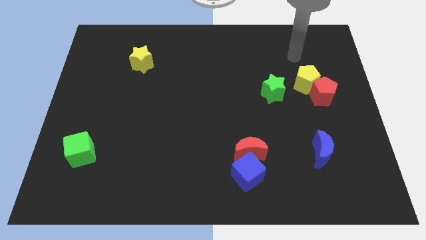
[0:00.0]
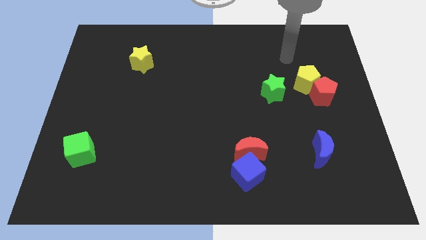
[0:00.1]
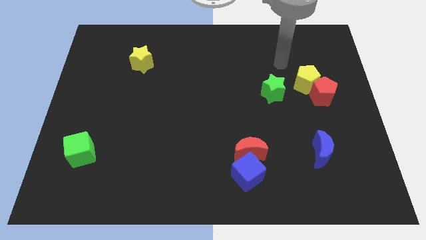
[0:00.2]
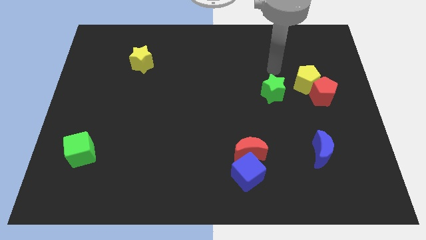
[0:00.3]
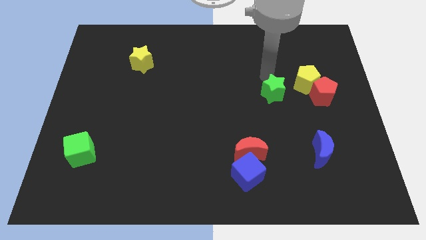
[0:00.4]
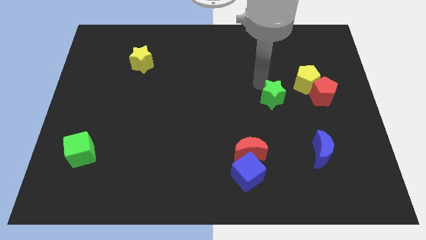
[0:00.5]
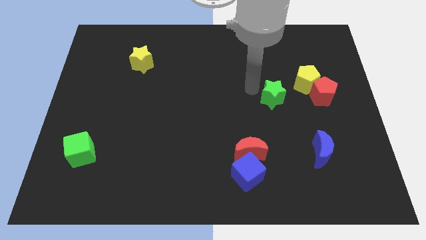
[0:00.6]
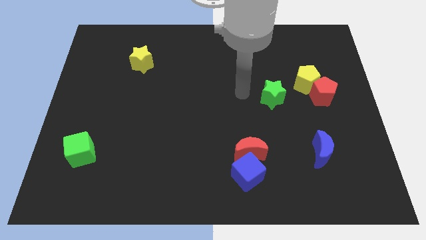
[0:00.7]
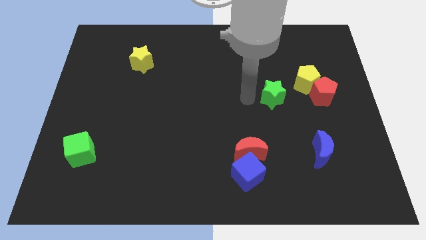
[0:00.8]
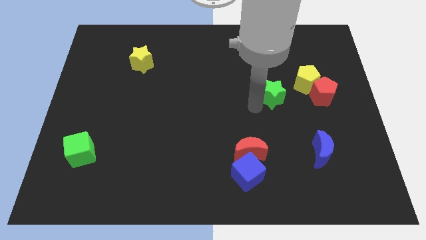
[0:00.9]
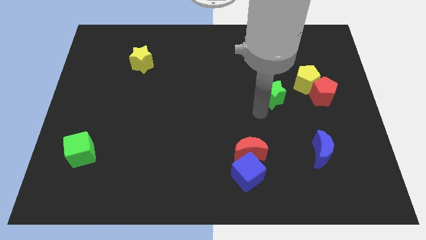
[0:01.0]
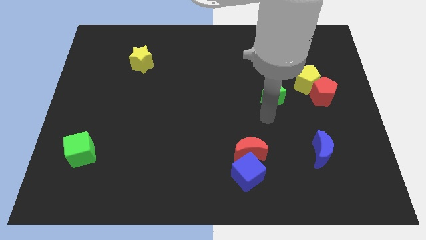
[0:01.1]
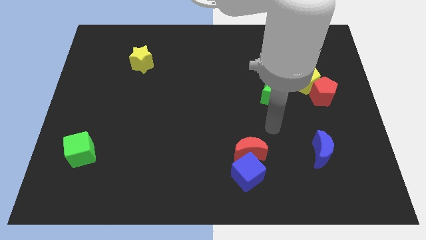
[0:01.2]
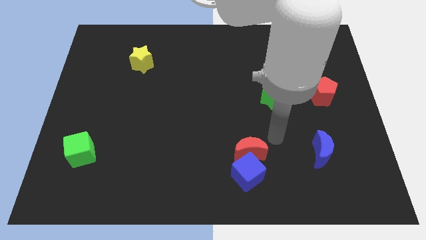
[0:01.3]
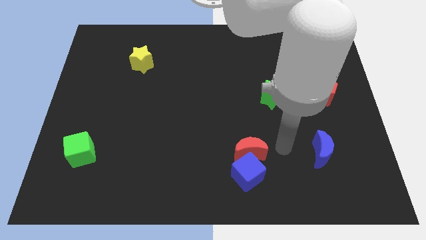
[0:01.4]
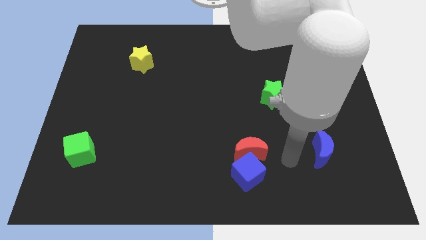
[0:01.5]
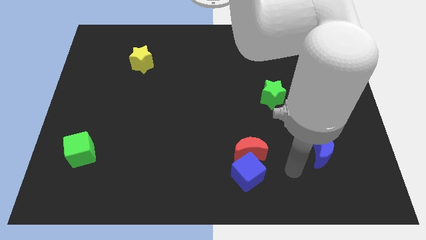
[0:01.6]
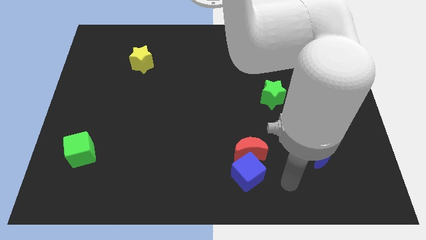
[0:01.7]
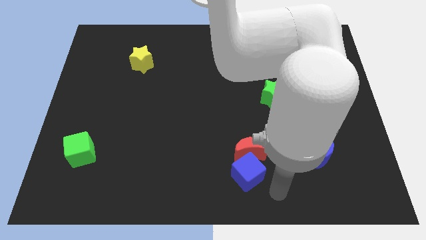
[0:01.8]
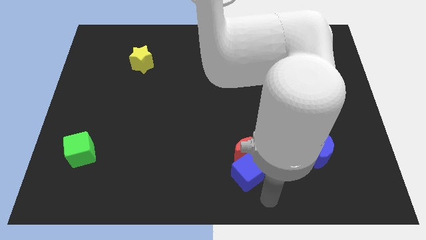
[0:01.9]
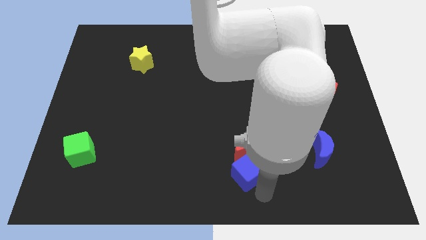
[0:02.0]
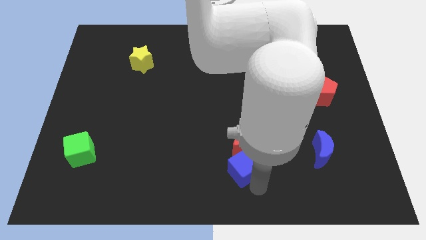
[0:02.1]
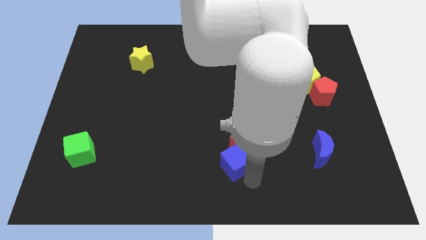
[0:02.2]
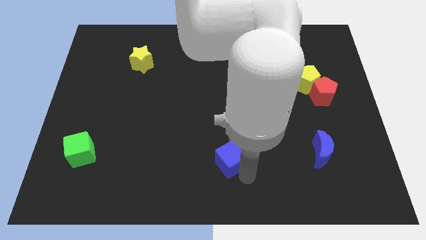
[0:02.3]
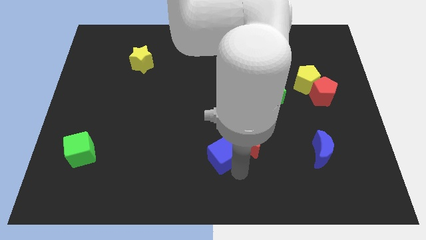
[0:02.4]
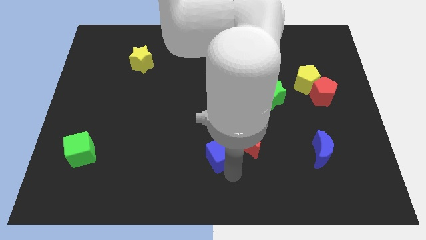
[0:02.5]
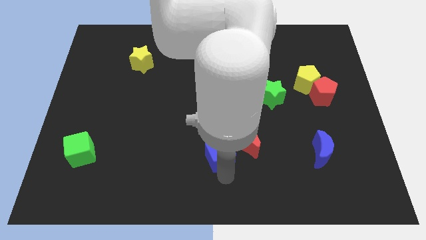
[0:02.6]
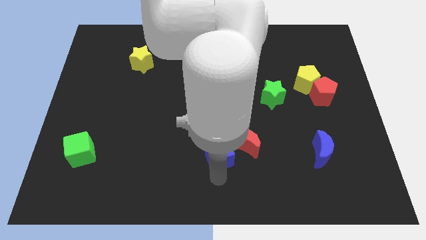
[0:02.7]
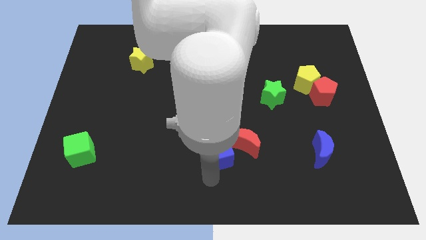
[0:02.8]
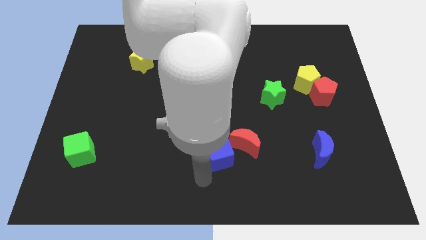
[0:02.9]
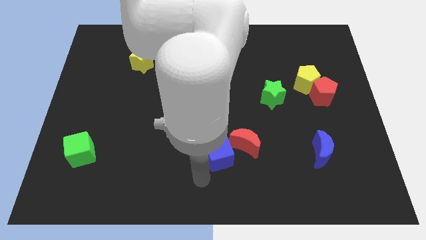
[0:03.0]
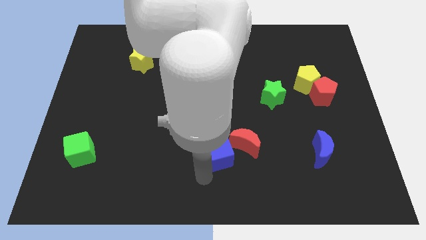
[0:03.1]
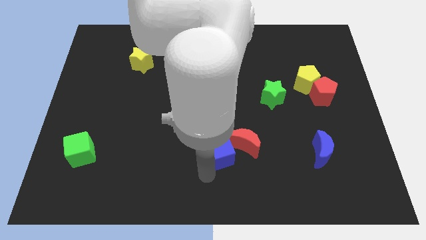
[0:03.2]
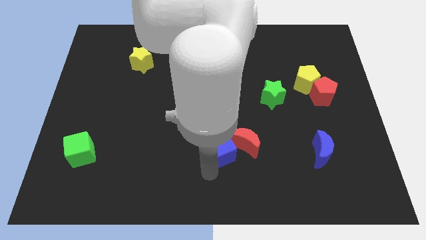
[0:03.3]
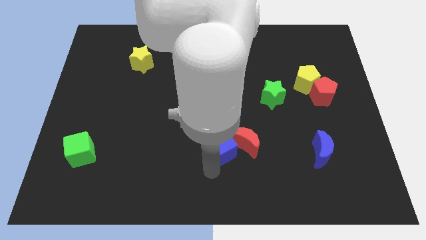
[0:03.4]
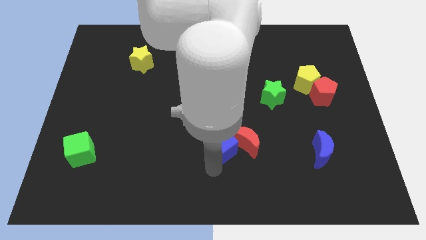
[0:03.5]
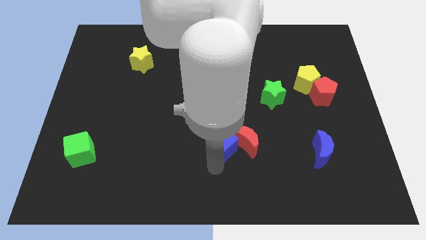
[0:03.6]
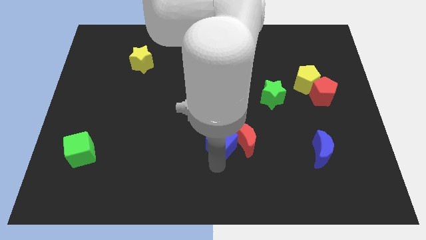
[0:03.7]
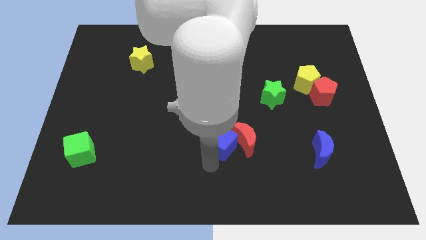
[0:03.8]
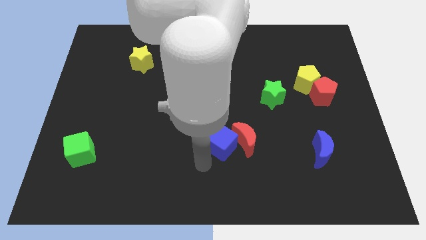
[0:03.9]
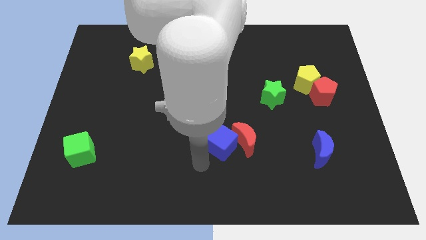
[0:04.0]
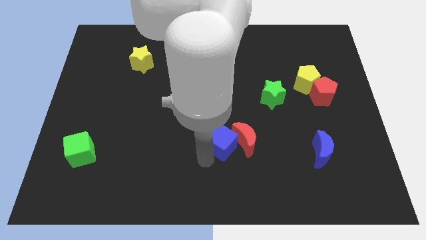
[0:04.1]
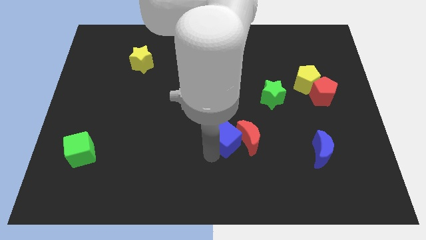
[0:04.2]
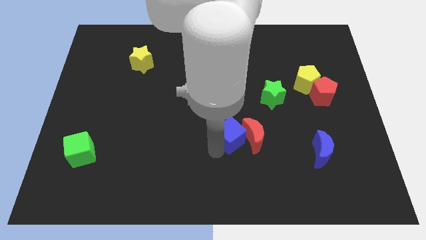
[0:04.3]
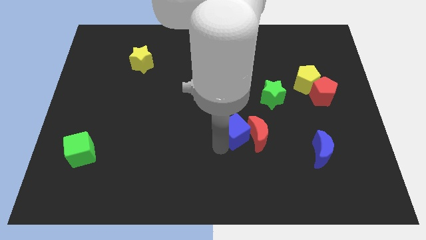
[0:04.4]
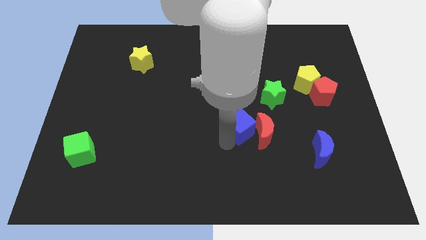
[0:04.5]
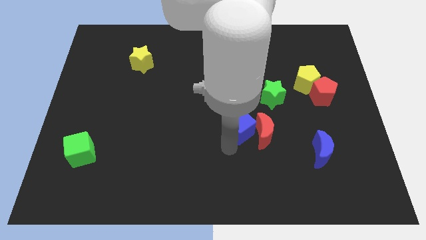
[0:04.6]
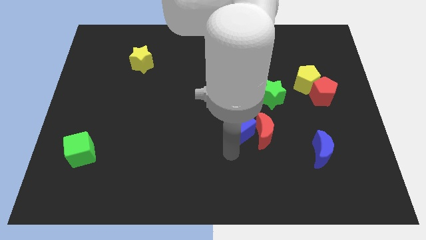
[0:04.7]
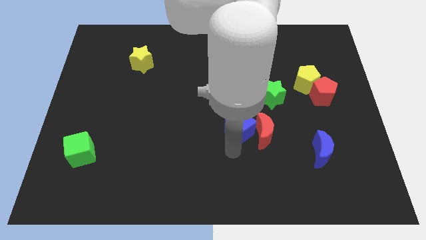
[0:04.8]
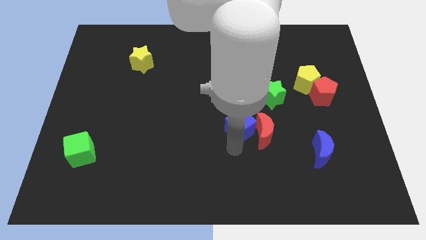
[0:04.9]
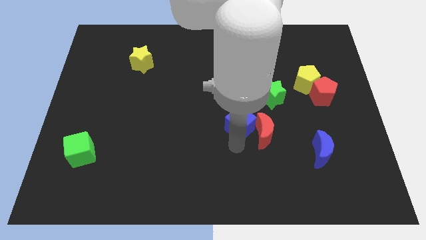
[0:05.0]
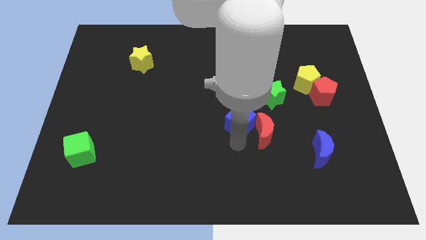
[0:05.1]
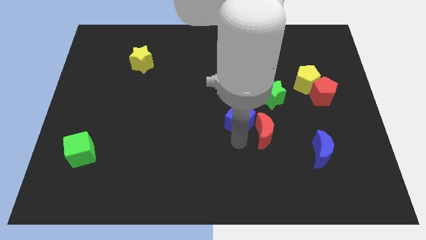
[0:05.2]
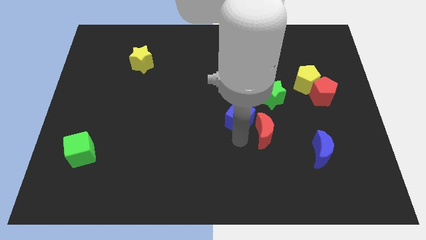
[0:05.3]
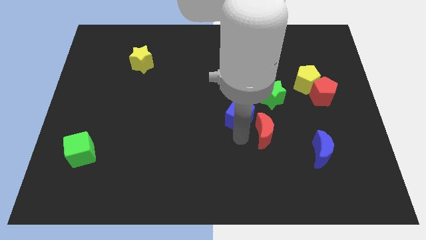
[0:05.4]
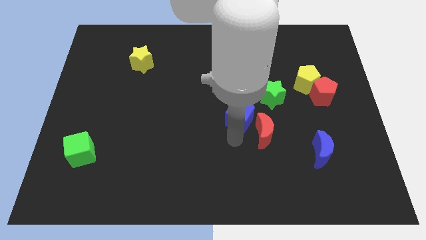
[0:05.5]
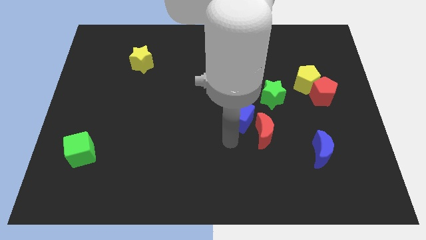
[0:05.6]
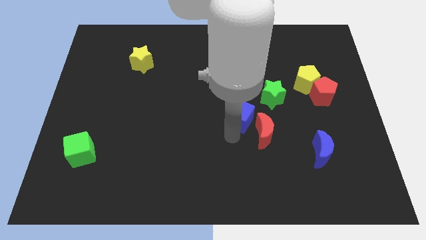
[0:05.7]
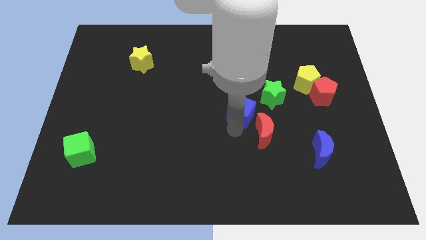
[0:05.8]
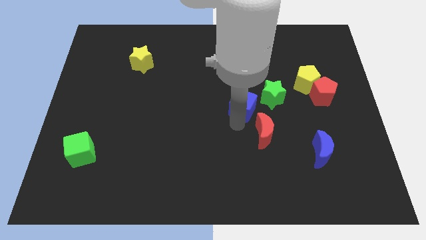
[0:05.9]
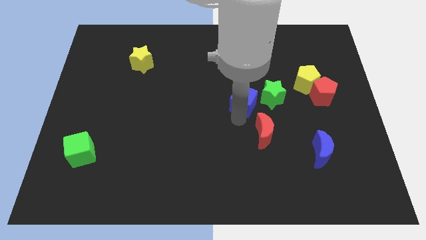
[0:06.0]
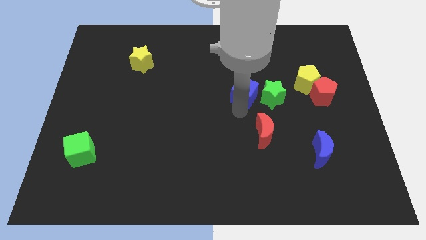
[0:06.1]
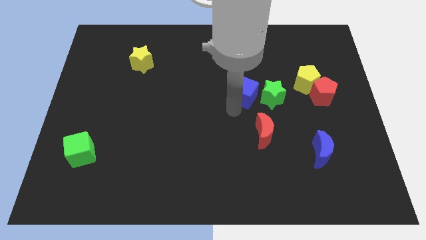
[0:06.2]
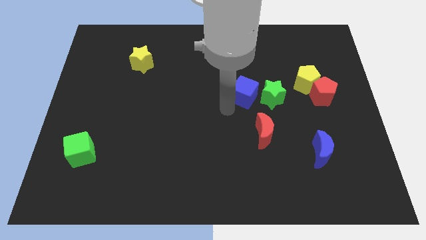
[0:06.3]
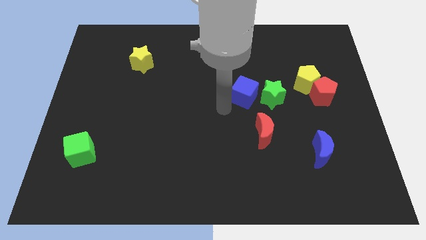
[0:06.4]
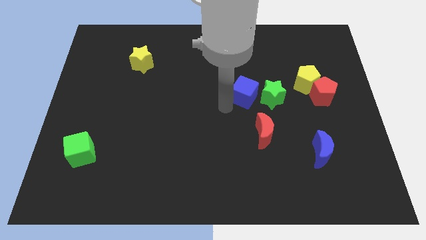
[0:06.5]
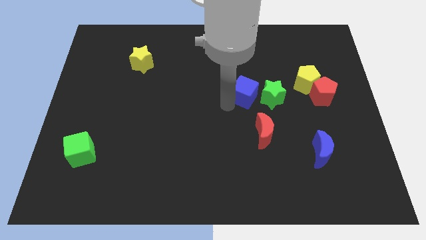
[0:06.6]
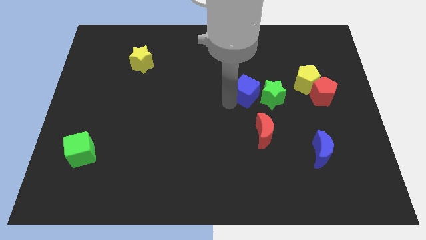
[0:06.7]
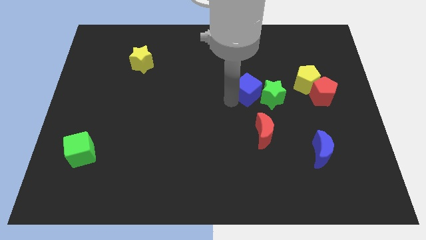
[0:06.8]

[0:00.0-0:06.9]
move the blue cube just left of the yellow pentagon
